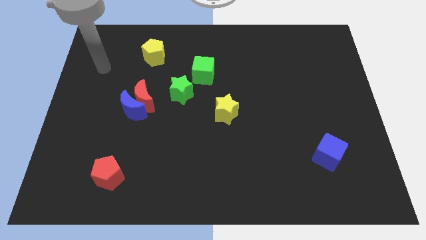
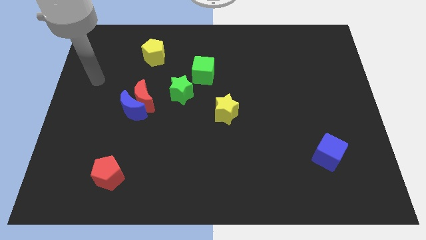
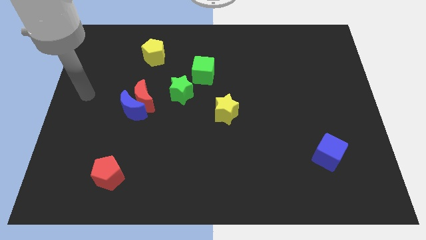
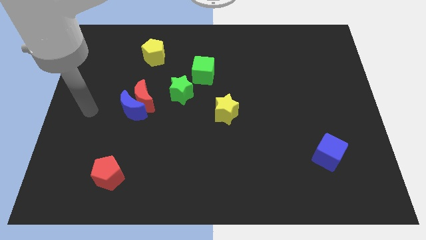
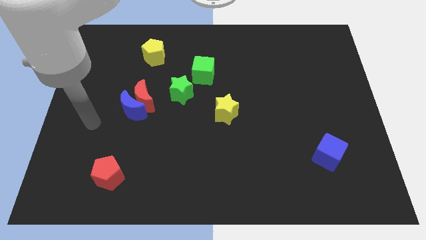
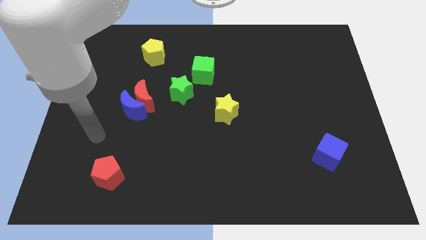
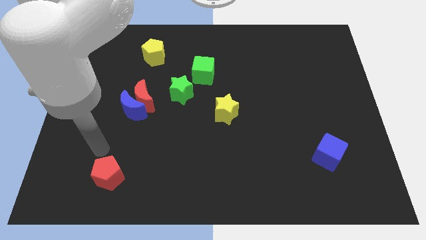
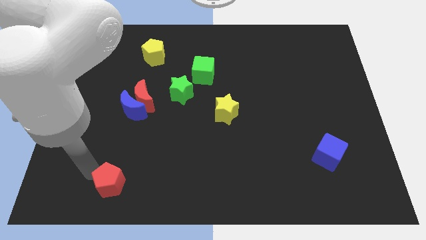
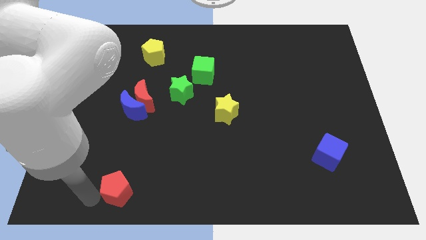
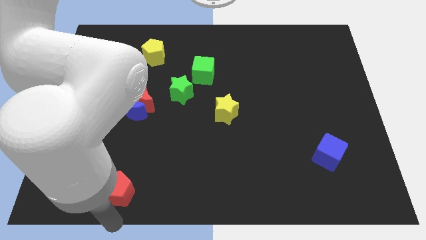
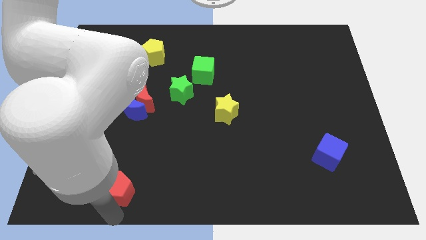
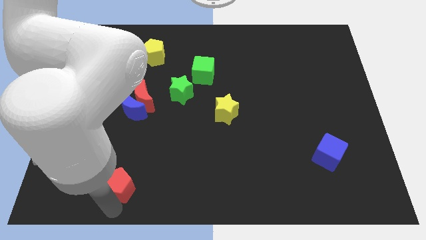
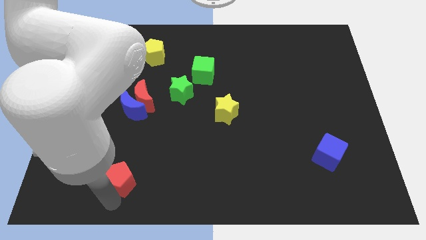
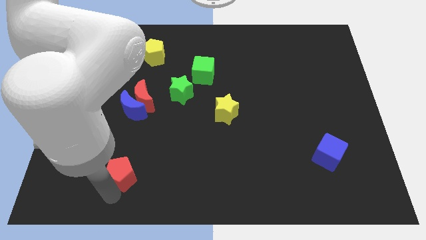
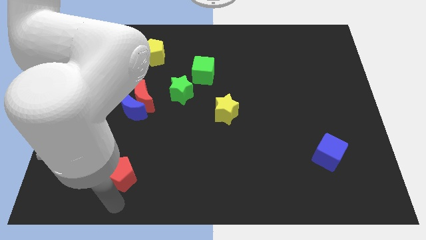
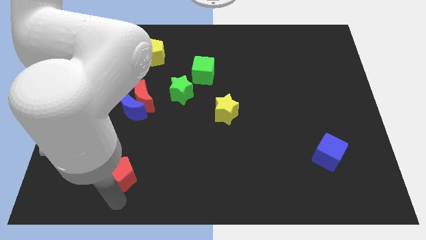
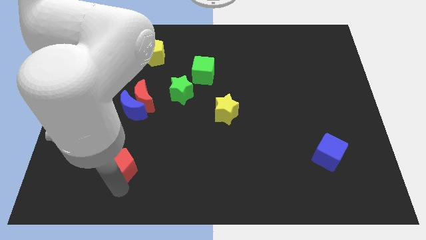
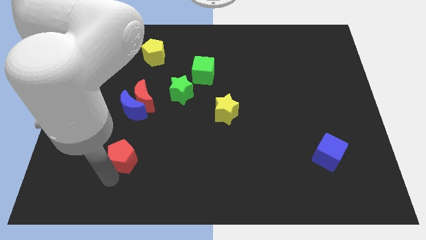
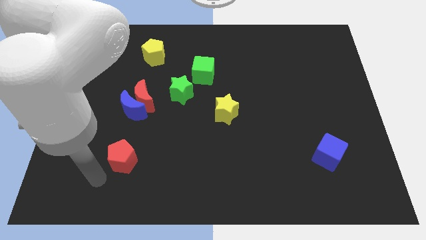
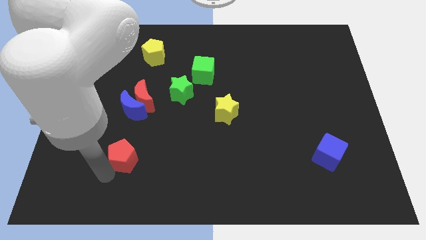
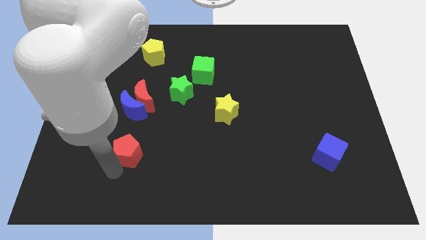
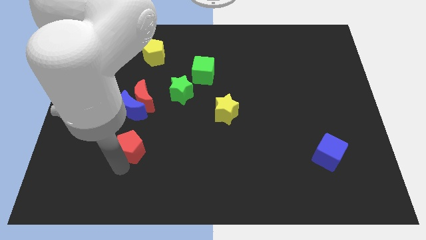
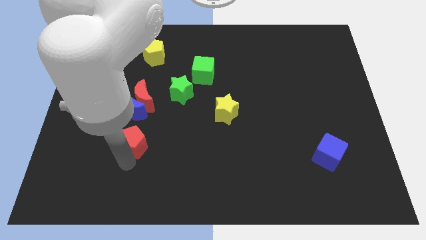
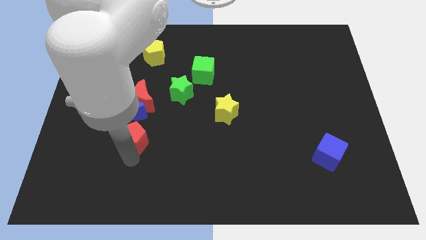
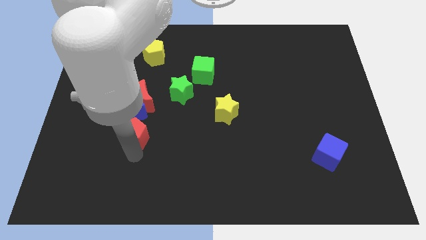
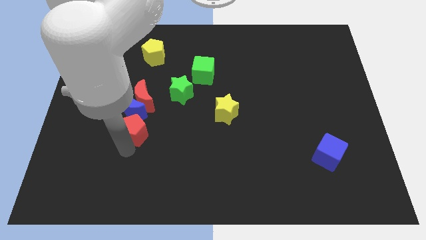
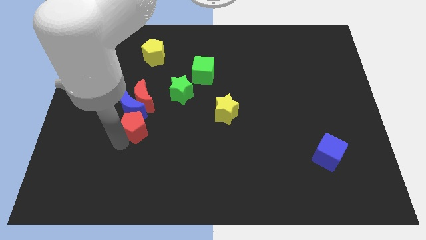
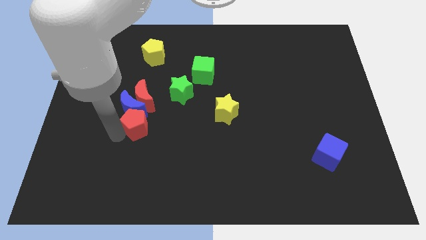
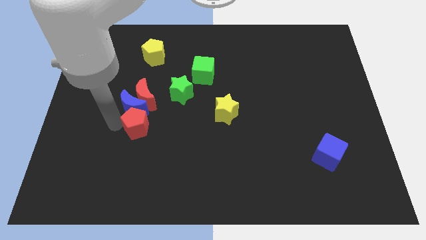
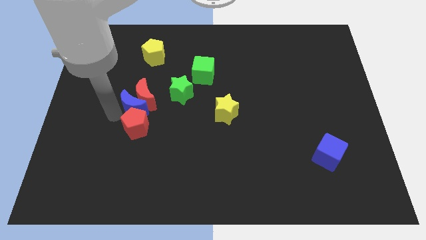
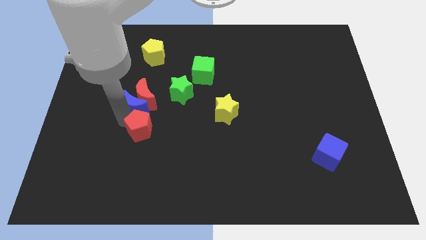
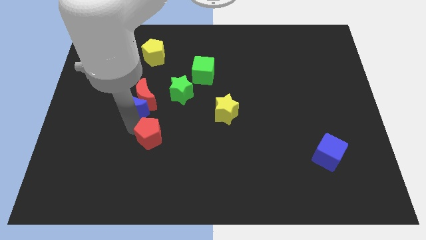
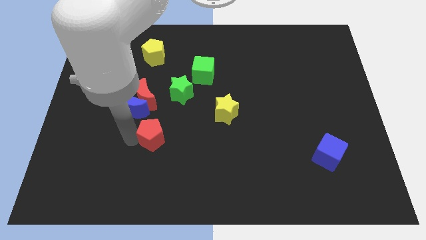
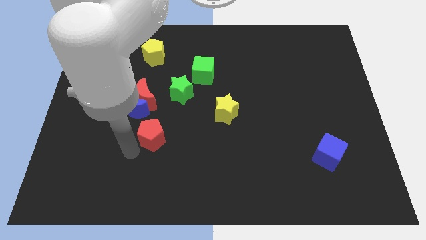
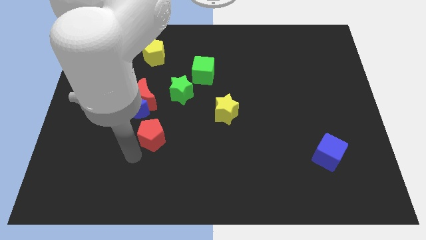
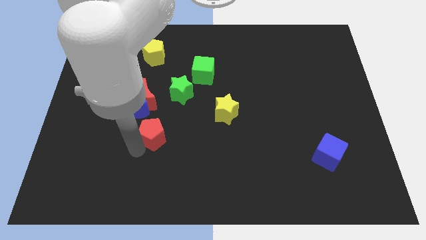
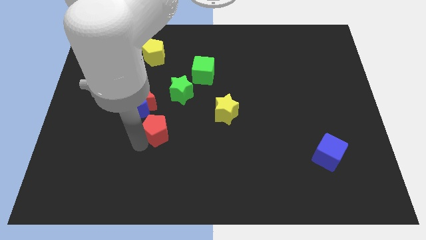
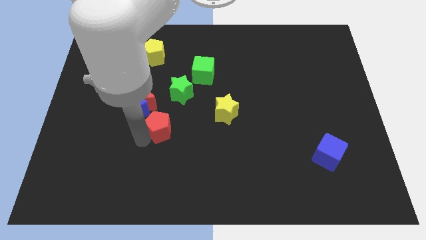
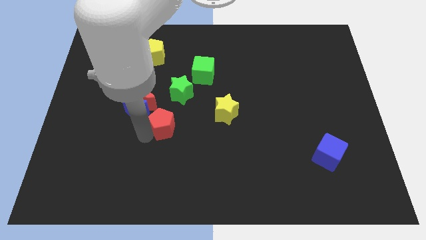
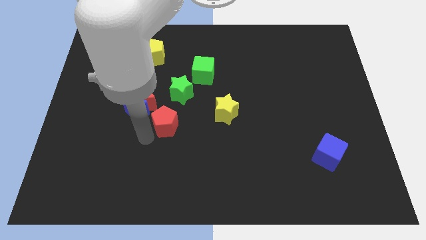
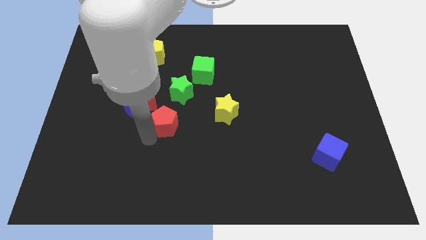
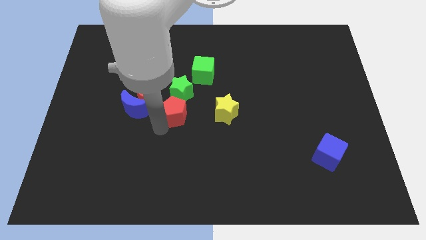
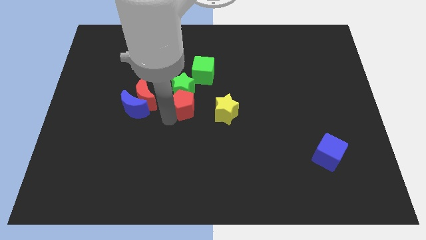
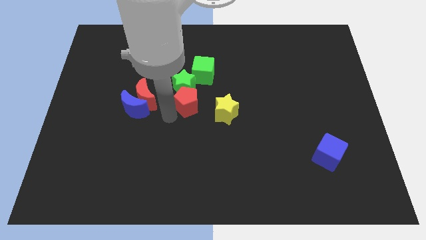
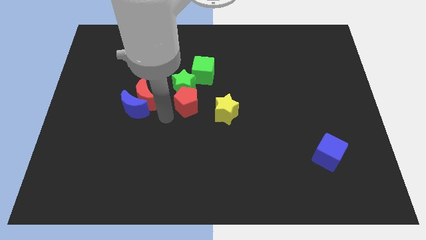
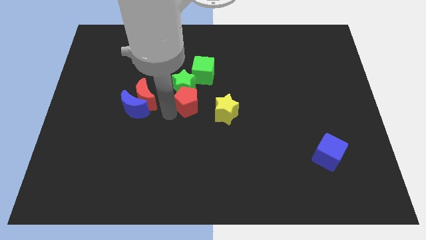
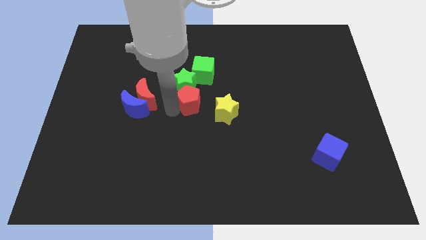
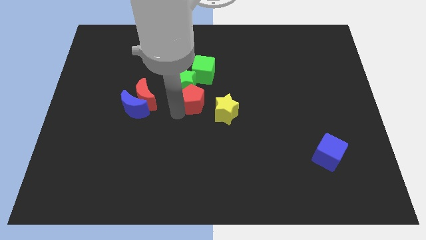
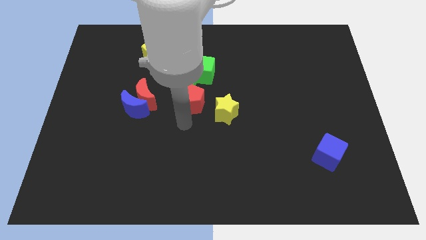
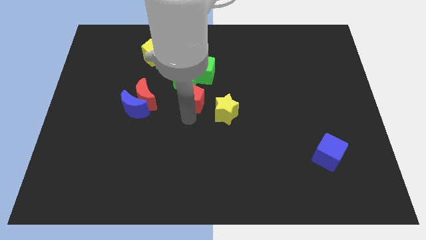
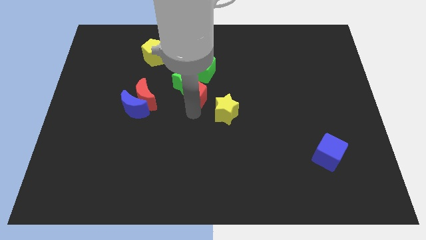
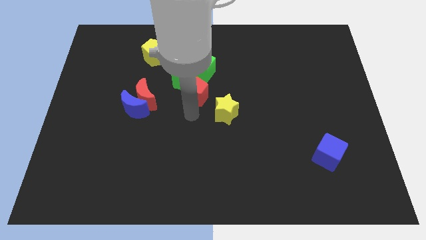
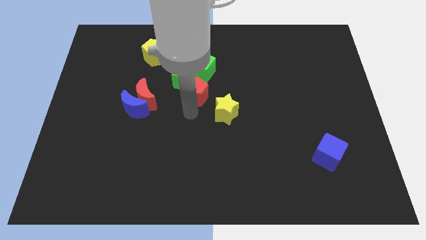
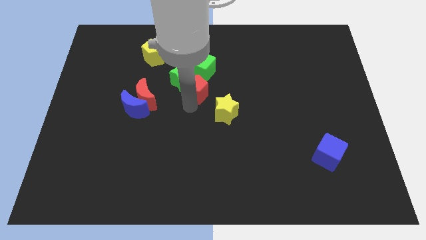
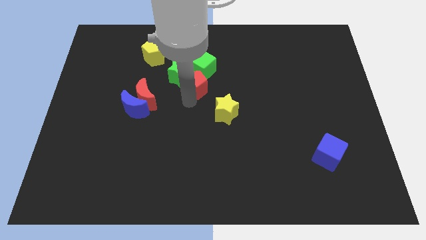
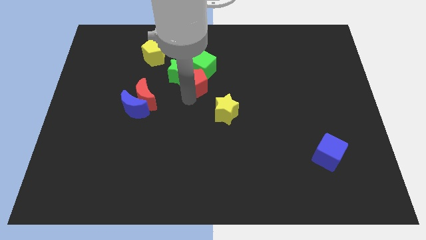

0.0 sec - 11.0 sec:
slide the red pentagon towards the green cube
